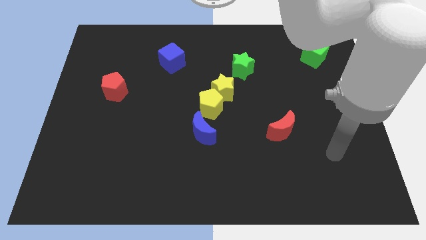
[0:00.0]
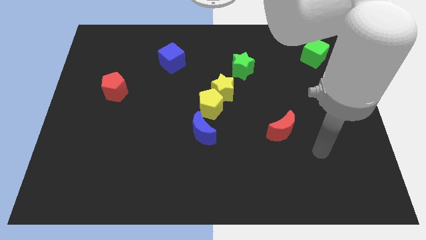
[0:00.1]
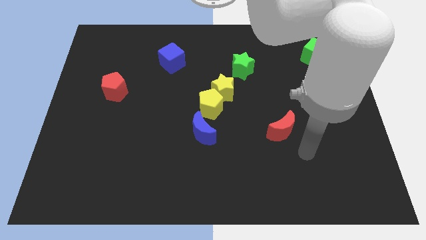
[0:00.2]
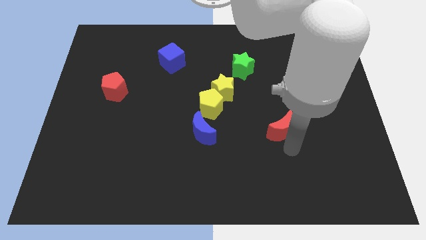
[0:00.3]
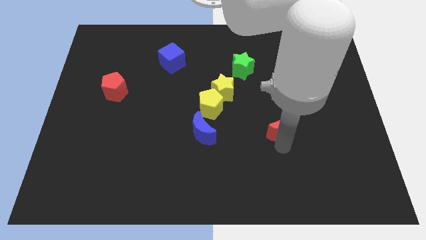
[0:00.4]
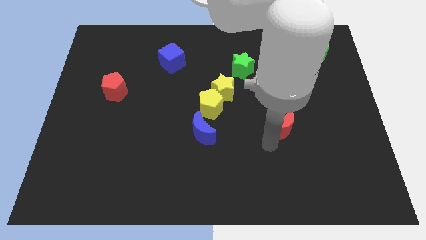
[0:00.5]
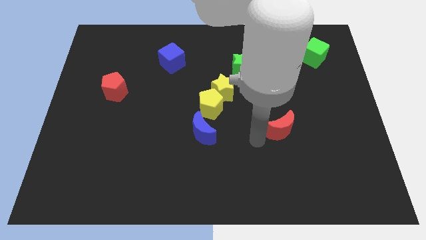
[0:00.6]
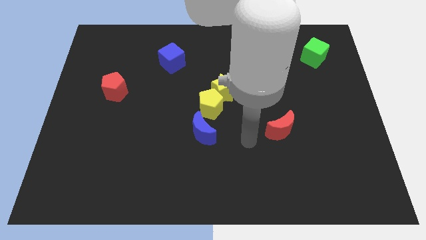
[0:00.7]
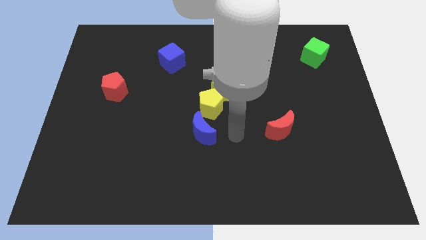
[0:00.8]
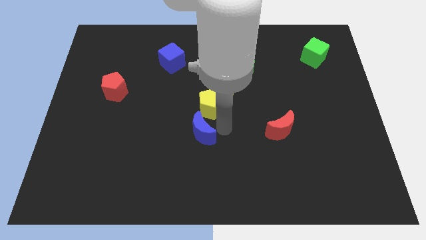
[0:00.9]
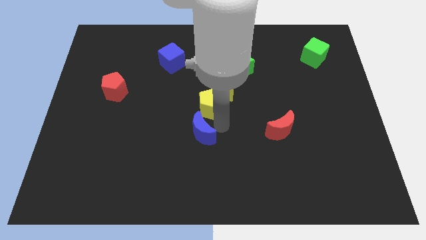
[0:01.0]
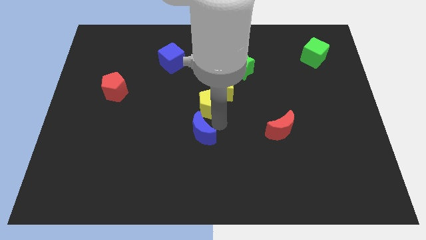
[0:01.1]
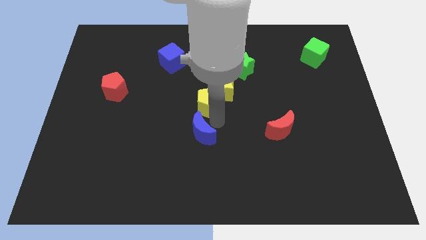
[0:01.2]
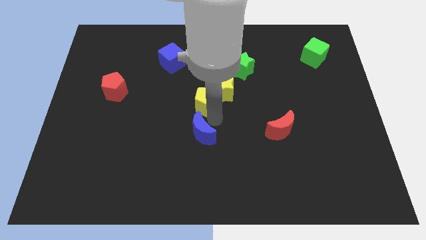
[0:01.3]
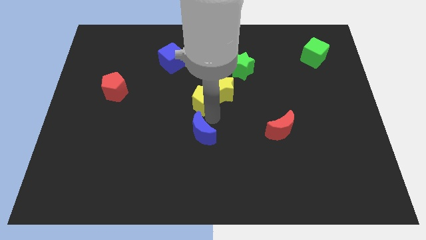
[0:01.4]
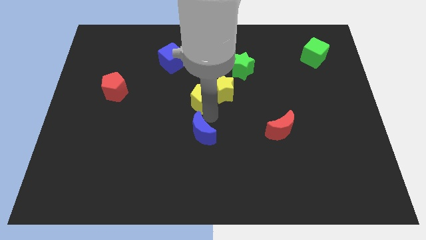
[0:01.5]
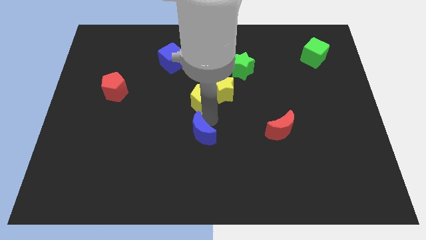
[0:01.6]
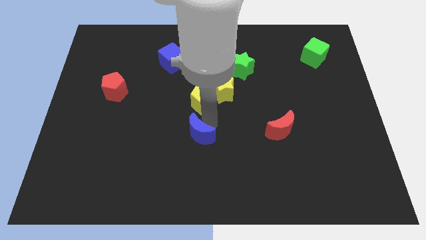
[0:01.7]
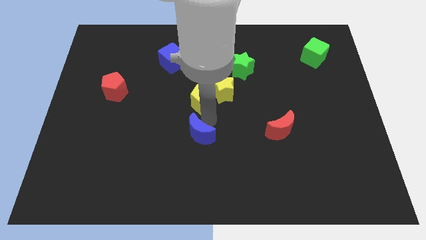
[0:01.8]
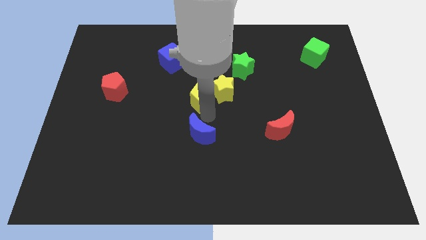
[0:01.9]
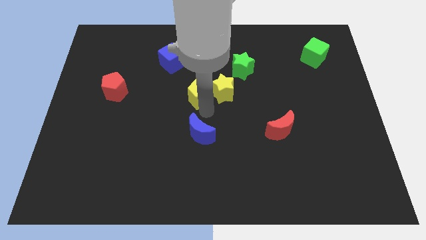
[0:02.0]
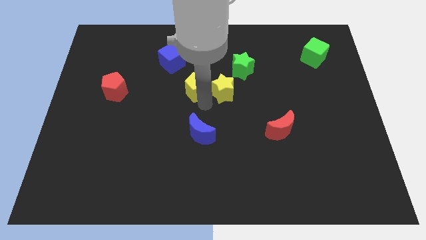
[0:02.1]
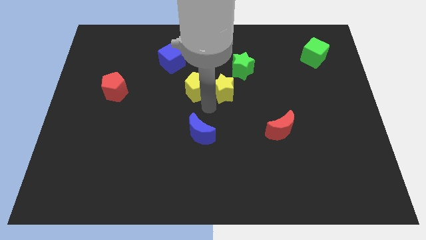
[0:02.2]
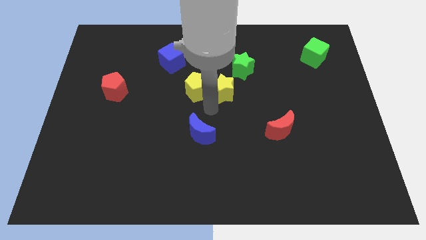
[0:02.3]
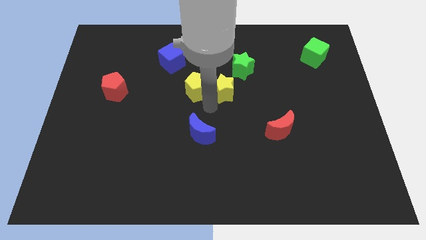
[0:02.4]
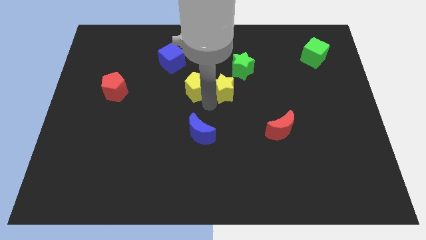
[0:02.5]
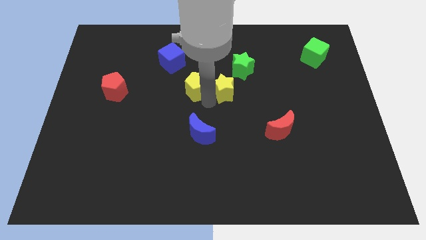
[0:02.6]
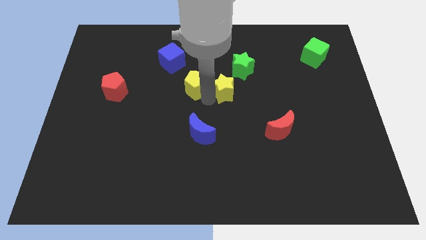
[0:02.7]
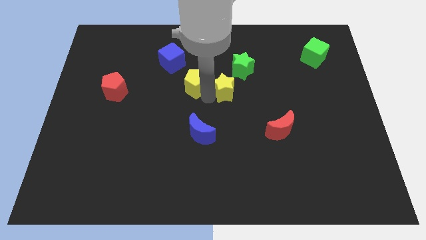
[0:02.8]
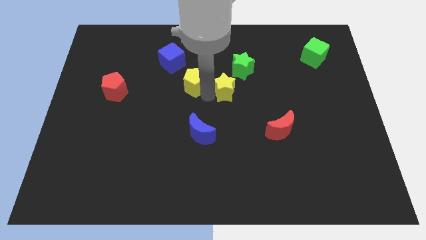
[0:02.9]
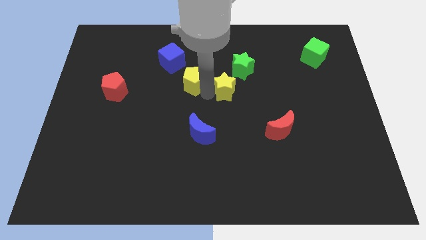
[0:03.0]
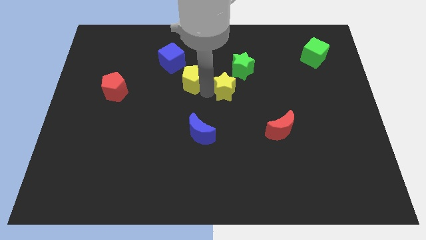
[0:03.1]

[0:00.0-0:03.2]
move the yellow pentagon away from the yellow star and blue moon

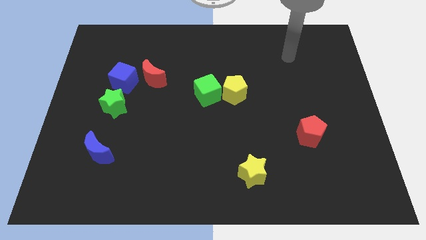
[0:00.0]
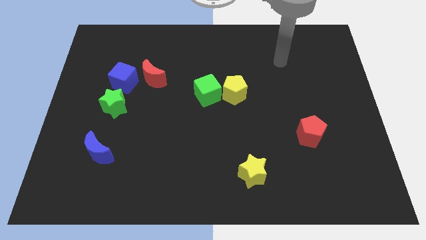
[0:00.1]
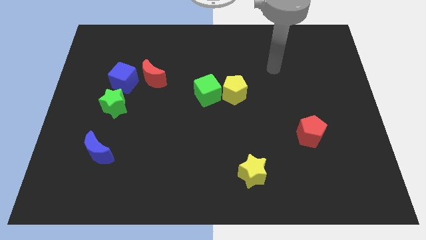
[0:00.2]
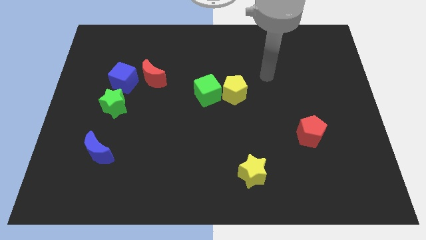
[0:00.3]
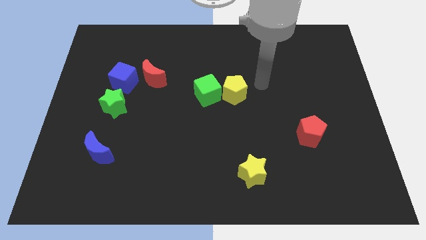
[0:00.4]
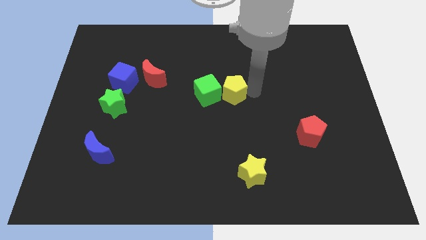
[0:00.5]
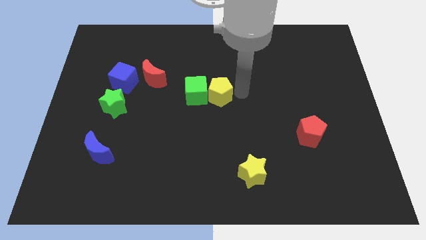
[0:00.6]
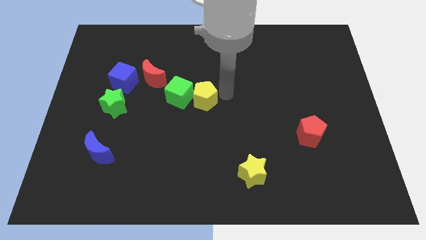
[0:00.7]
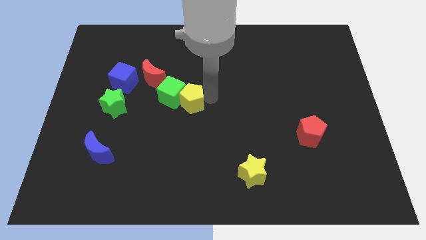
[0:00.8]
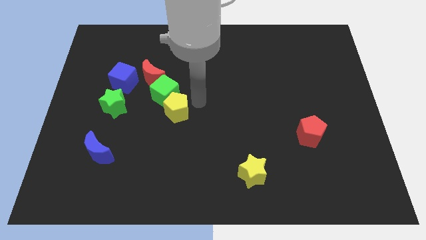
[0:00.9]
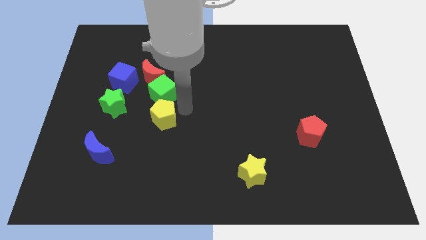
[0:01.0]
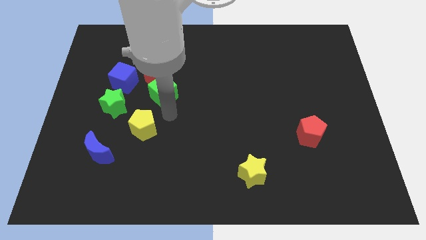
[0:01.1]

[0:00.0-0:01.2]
separate the green cube from the yellow pentagon

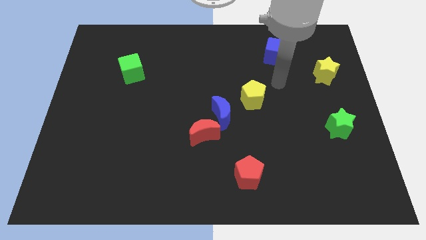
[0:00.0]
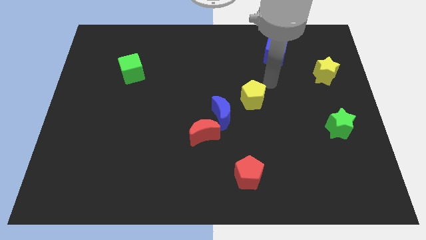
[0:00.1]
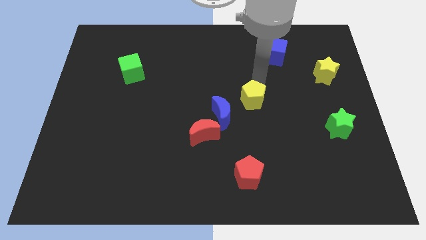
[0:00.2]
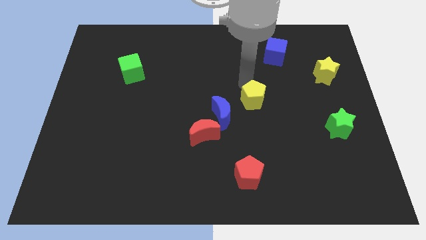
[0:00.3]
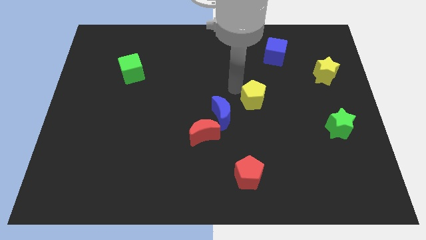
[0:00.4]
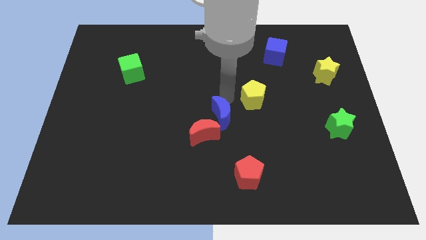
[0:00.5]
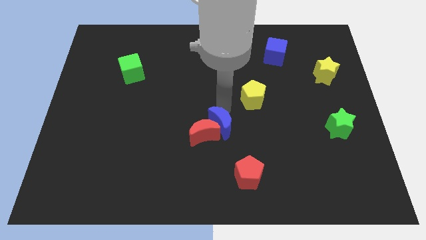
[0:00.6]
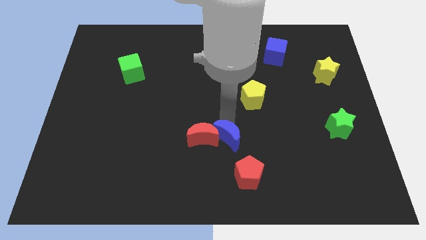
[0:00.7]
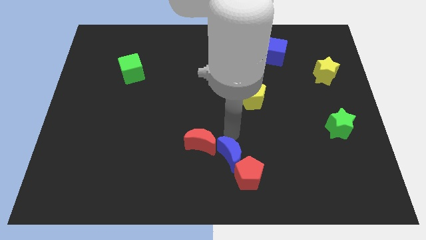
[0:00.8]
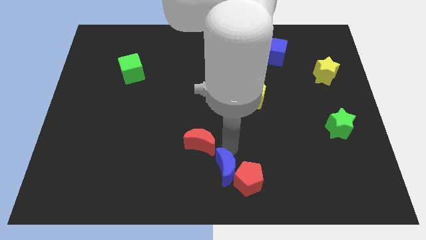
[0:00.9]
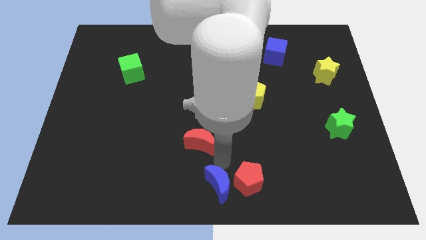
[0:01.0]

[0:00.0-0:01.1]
move the red moon away from the blue moon

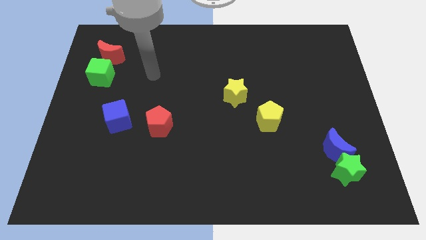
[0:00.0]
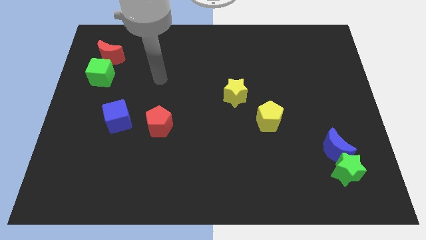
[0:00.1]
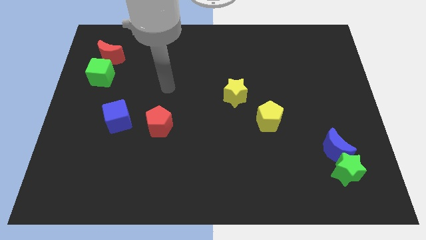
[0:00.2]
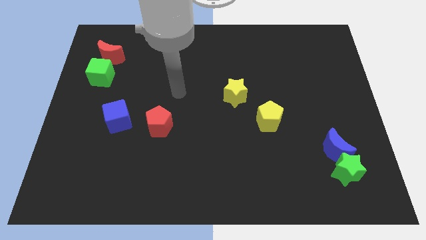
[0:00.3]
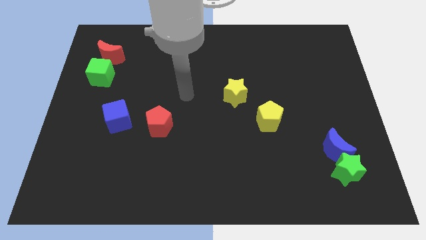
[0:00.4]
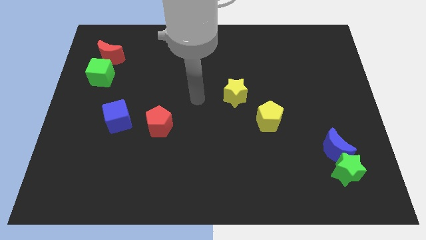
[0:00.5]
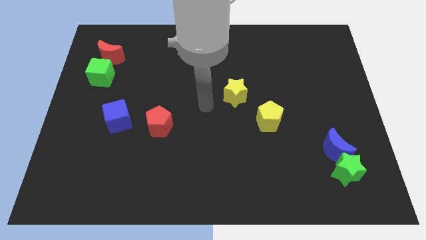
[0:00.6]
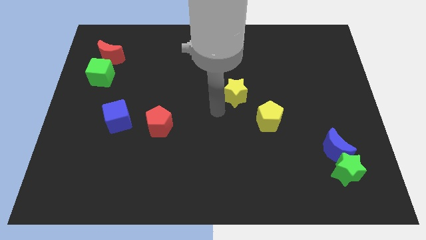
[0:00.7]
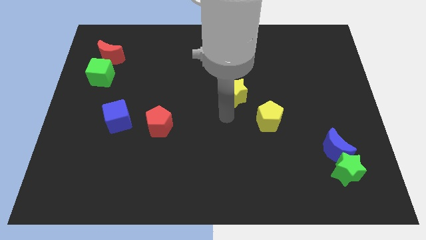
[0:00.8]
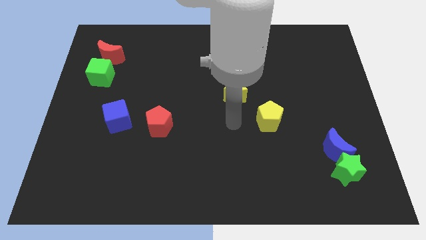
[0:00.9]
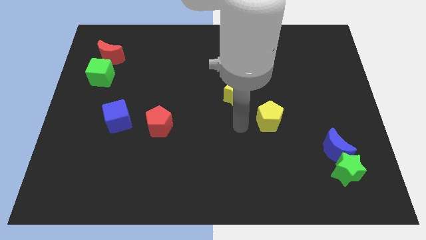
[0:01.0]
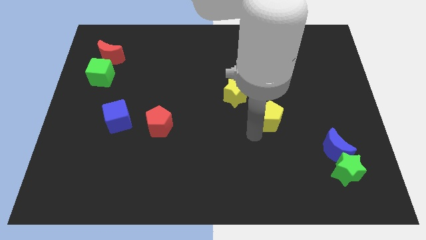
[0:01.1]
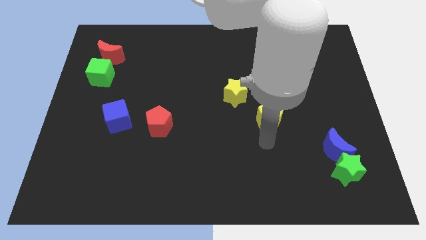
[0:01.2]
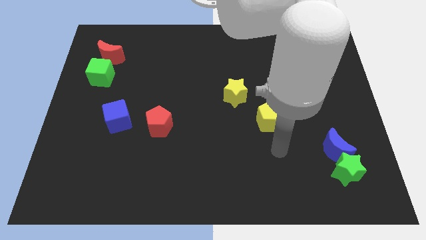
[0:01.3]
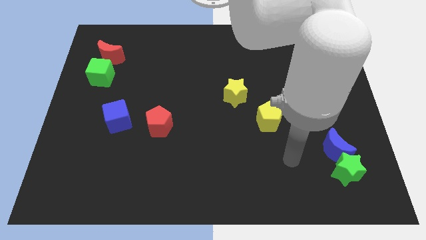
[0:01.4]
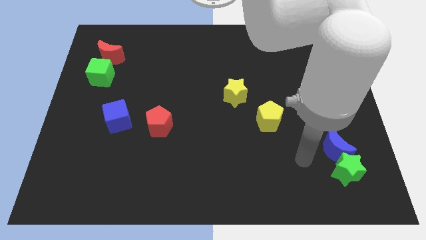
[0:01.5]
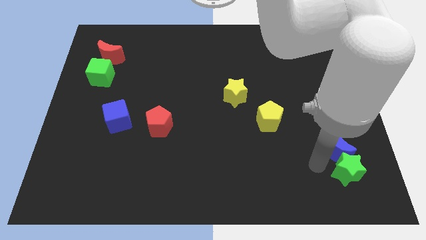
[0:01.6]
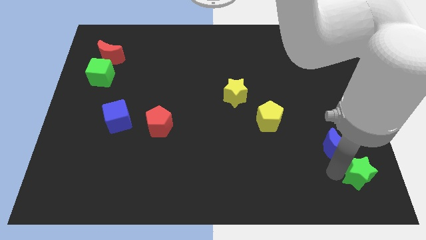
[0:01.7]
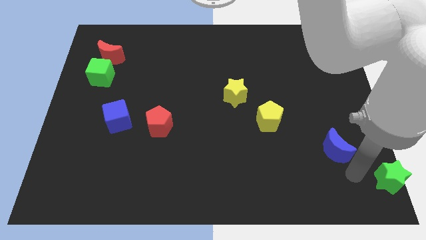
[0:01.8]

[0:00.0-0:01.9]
move the blue moon away from the green star

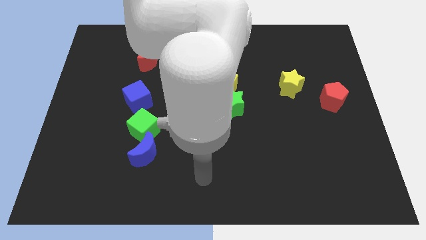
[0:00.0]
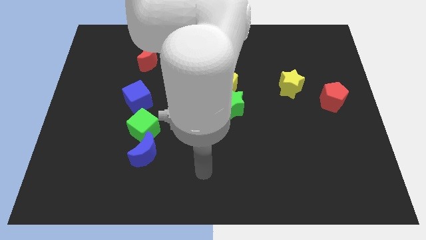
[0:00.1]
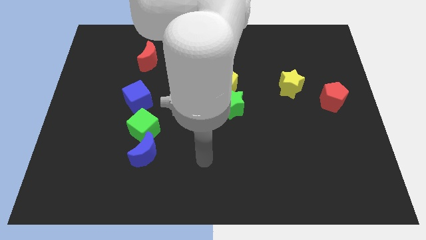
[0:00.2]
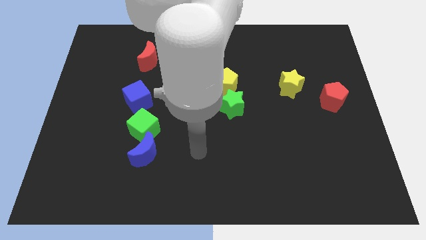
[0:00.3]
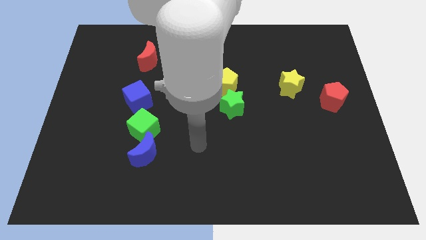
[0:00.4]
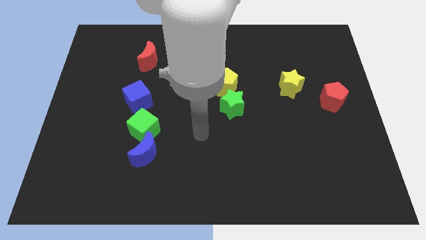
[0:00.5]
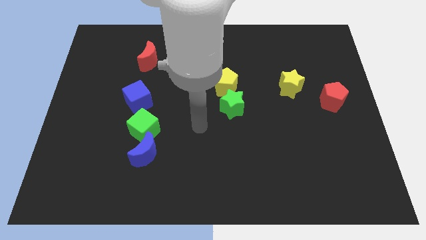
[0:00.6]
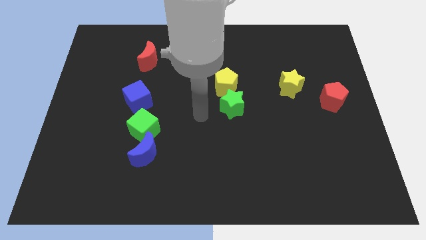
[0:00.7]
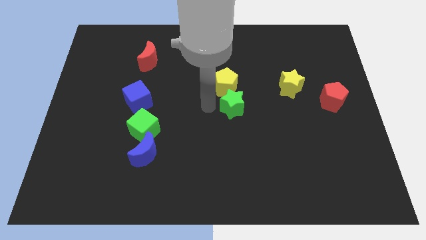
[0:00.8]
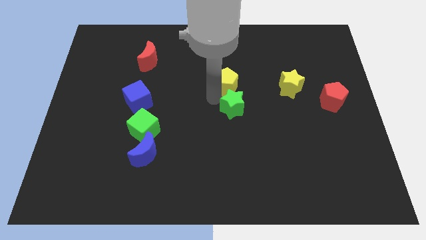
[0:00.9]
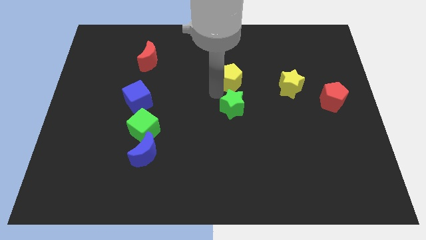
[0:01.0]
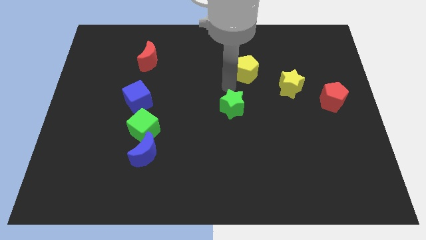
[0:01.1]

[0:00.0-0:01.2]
pull the green star apart from the yellow pentagon

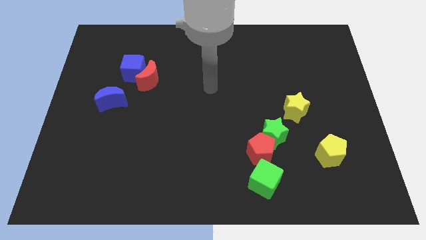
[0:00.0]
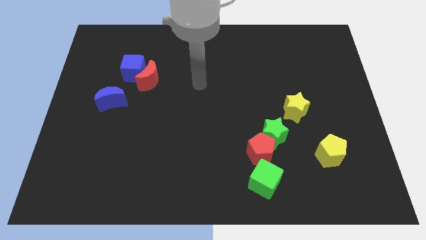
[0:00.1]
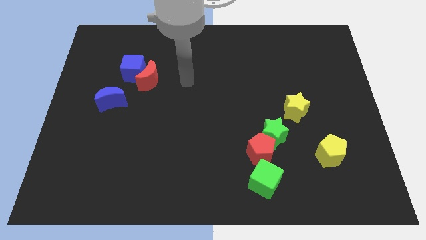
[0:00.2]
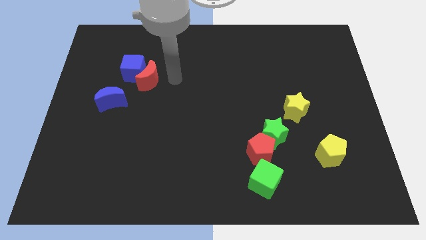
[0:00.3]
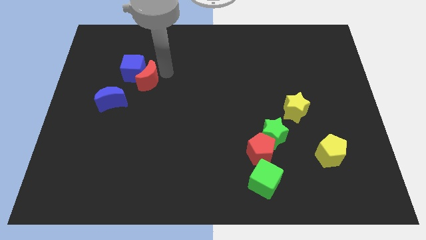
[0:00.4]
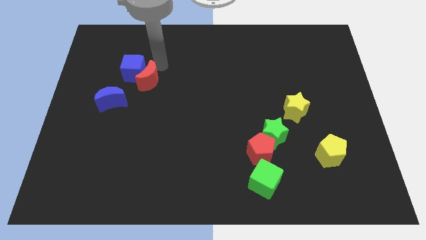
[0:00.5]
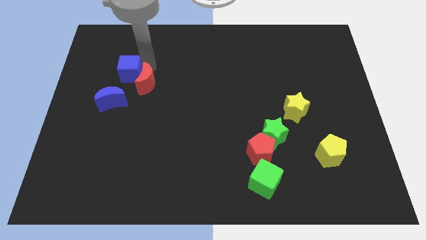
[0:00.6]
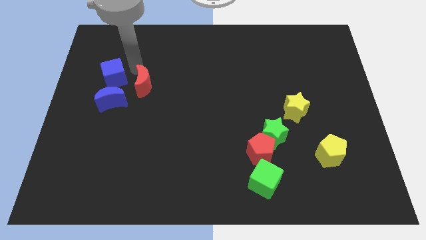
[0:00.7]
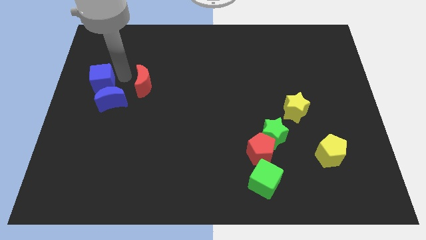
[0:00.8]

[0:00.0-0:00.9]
pull the red moon apart from the blue cube
